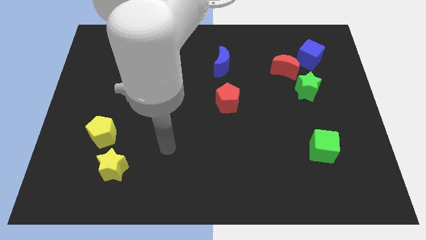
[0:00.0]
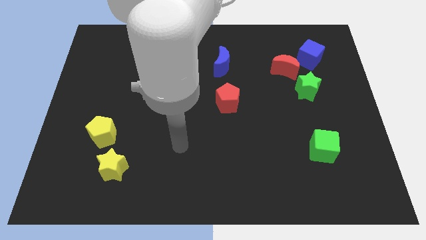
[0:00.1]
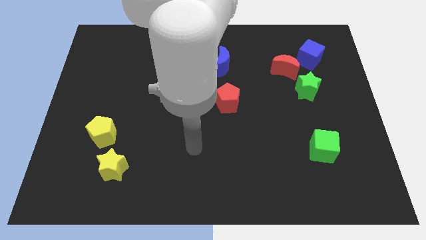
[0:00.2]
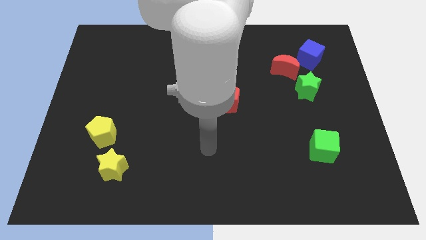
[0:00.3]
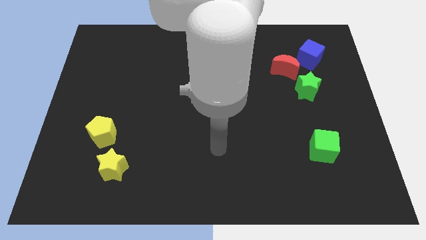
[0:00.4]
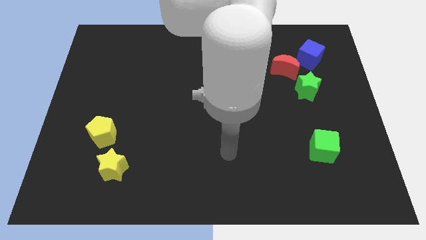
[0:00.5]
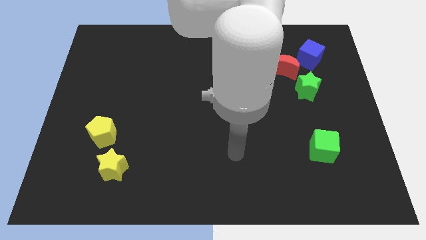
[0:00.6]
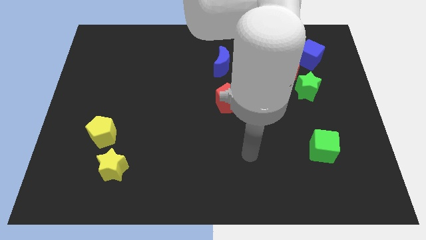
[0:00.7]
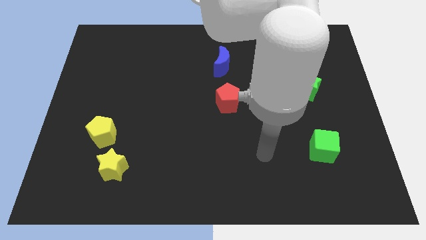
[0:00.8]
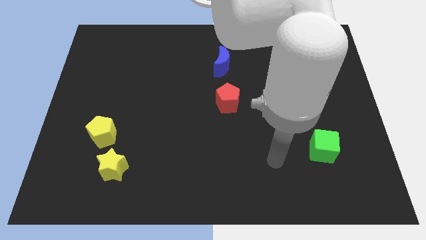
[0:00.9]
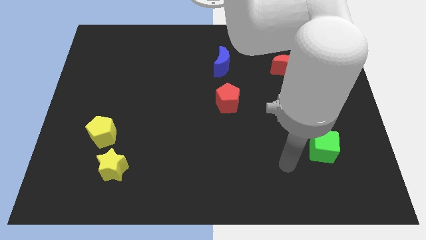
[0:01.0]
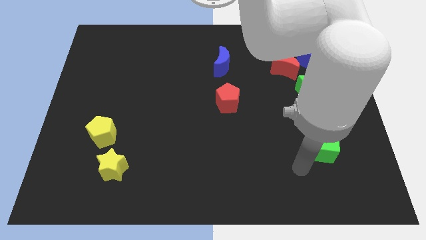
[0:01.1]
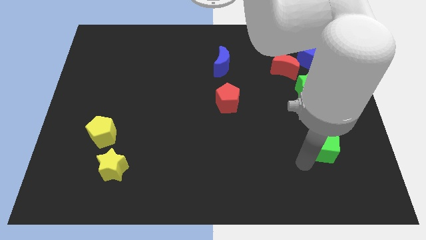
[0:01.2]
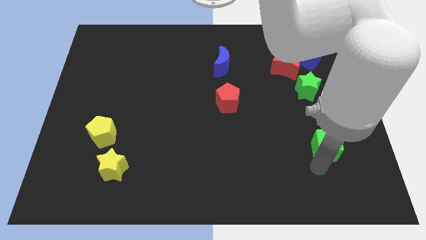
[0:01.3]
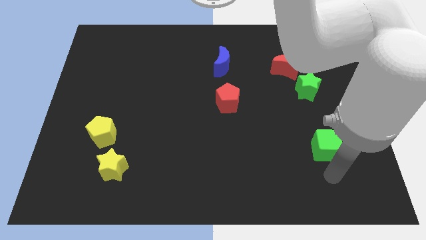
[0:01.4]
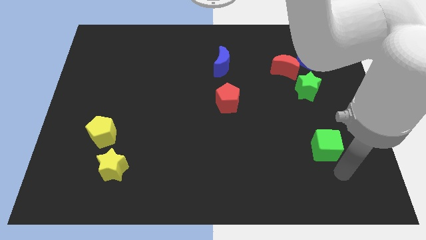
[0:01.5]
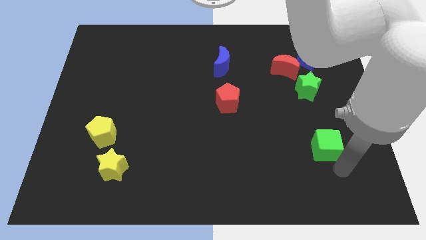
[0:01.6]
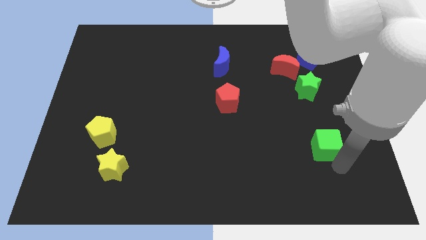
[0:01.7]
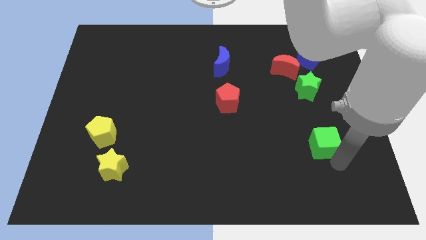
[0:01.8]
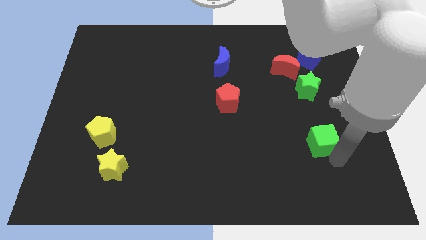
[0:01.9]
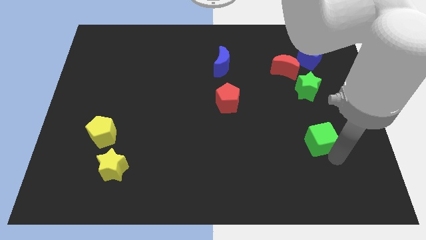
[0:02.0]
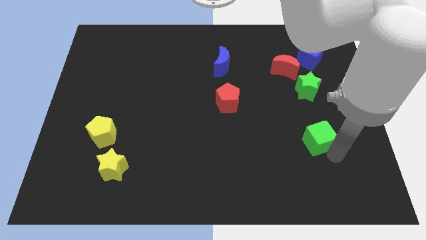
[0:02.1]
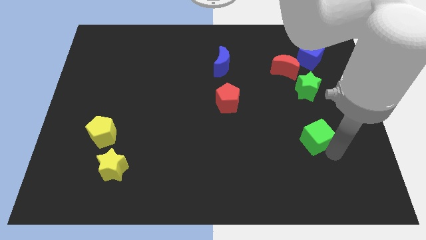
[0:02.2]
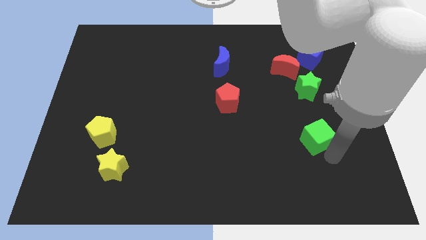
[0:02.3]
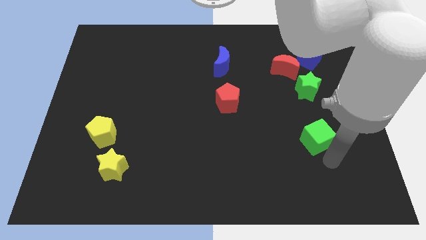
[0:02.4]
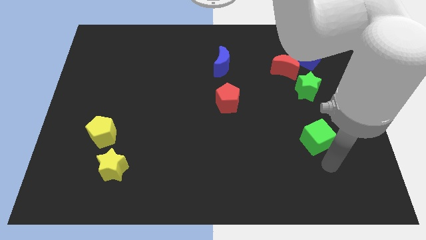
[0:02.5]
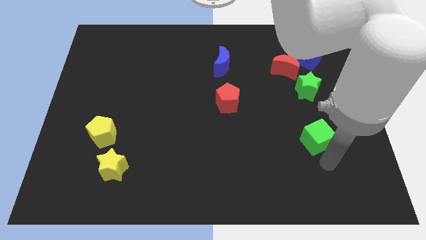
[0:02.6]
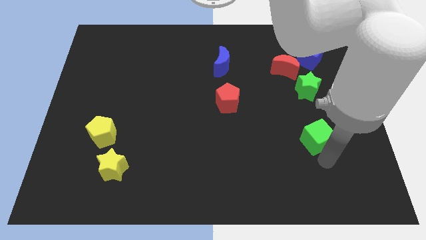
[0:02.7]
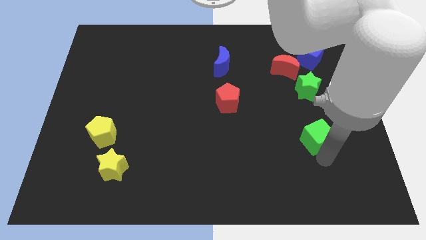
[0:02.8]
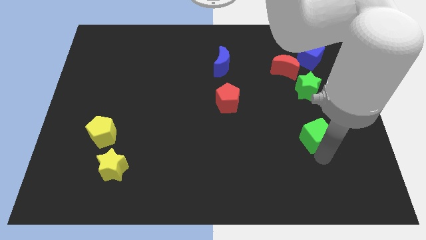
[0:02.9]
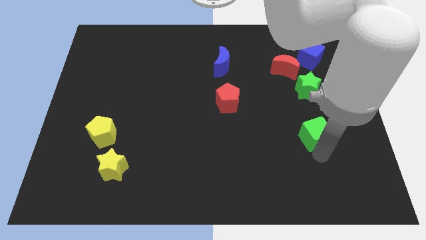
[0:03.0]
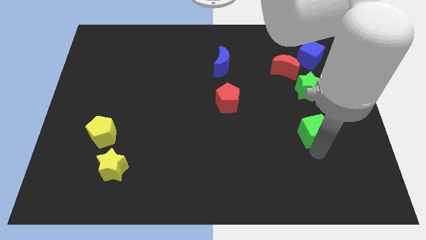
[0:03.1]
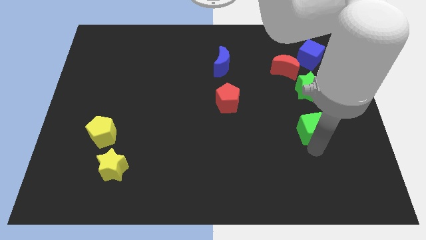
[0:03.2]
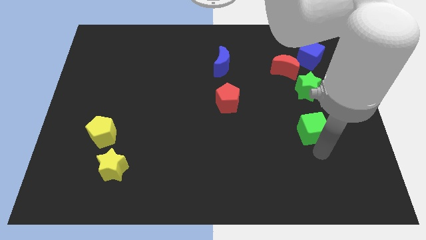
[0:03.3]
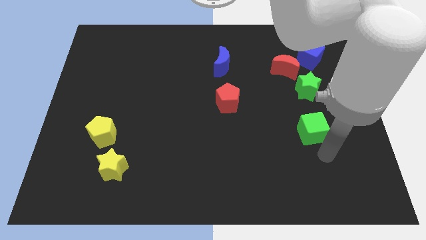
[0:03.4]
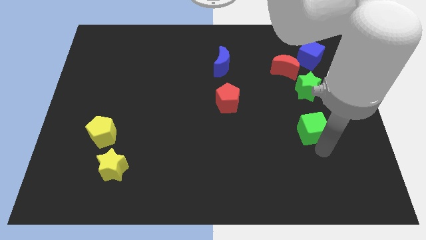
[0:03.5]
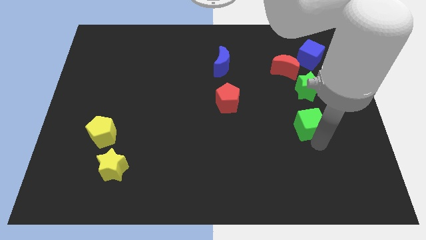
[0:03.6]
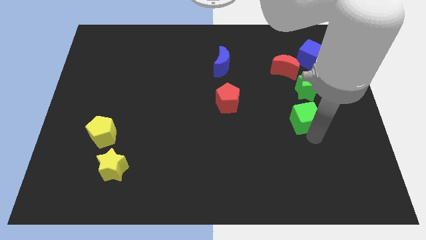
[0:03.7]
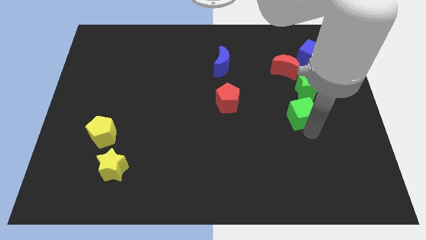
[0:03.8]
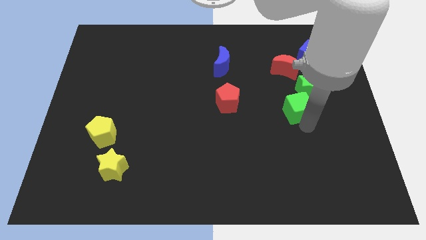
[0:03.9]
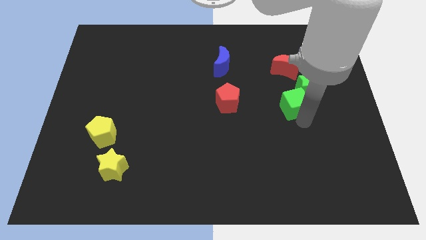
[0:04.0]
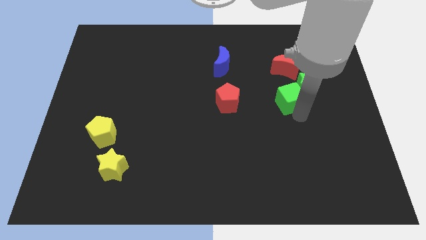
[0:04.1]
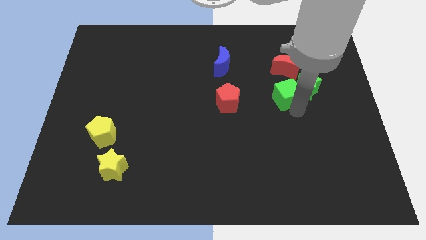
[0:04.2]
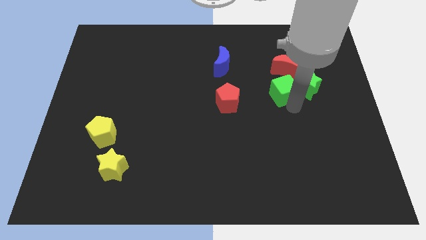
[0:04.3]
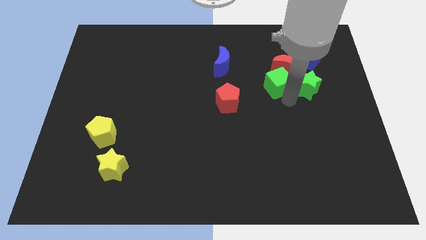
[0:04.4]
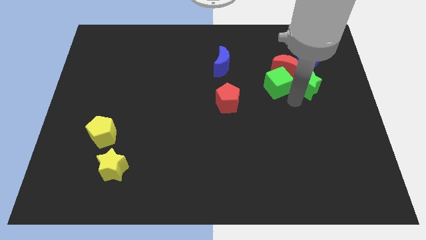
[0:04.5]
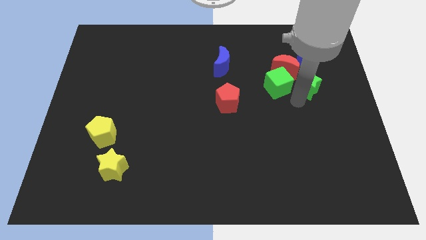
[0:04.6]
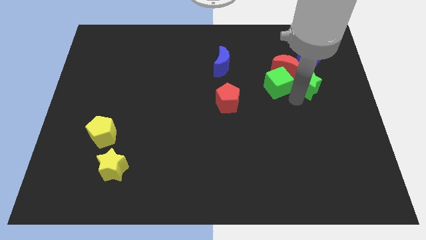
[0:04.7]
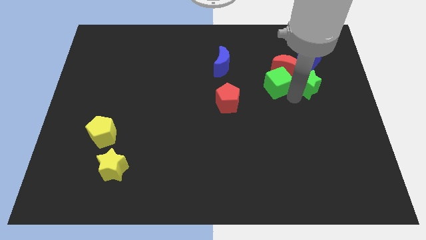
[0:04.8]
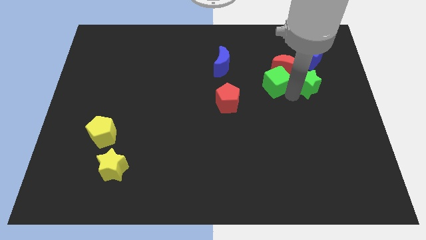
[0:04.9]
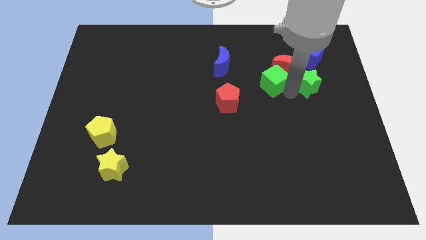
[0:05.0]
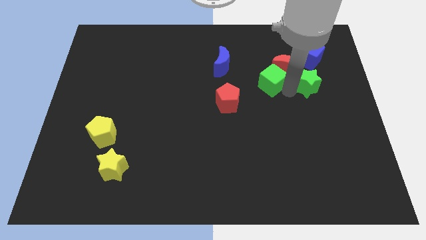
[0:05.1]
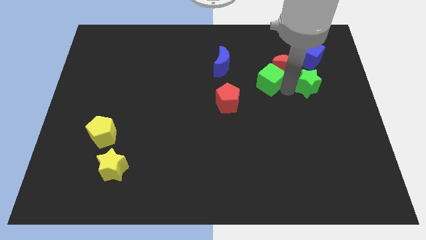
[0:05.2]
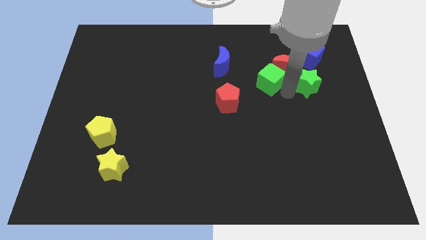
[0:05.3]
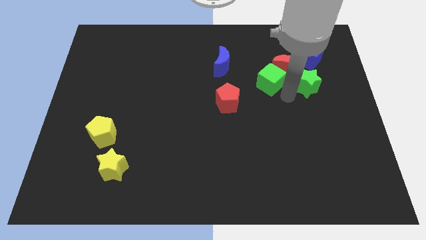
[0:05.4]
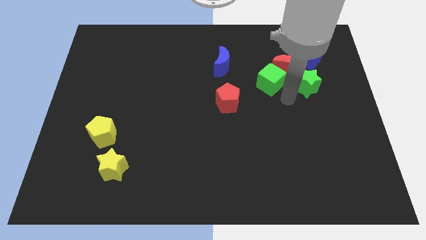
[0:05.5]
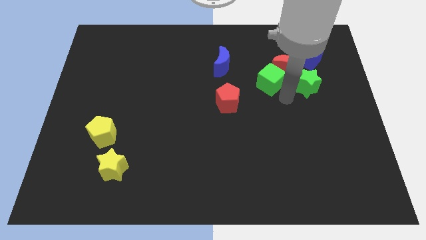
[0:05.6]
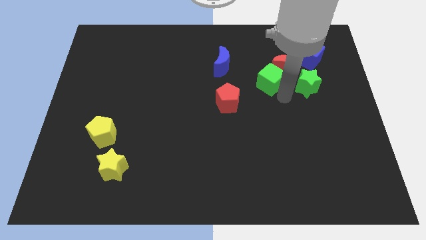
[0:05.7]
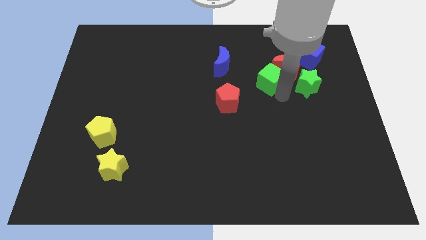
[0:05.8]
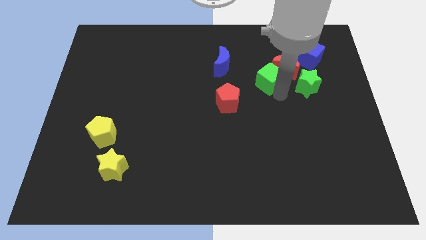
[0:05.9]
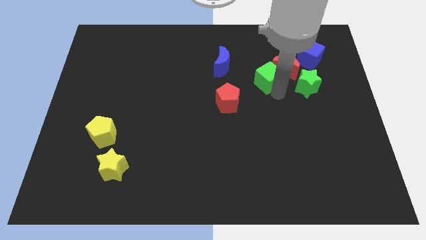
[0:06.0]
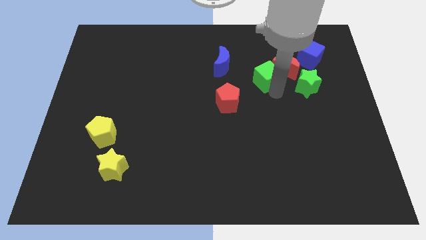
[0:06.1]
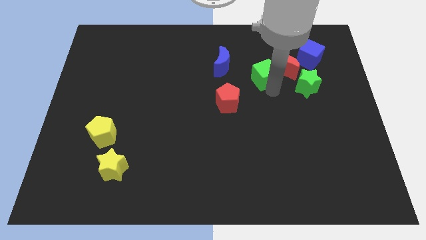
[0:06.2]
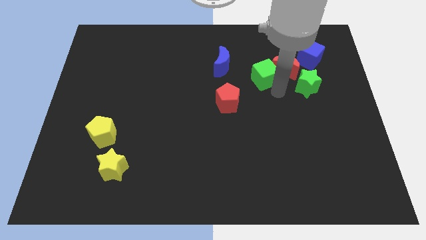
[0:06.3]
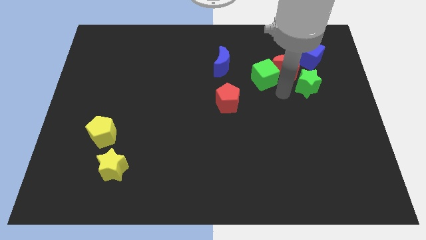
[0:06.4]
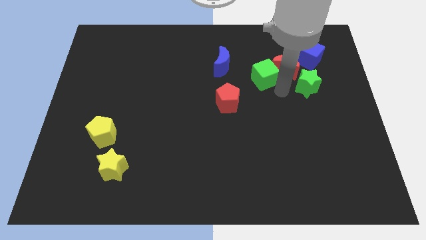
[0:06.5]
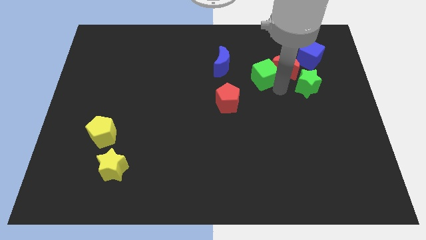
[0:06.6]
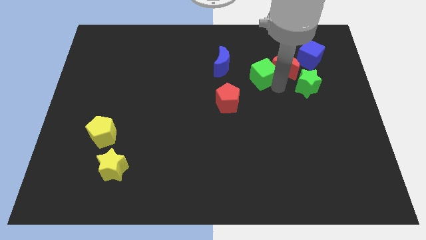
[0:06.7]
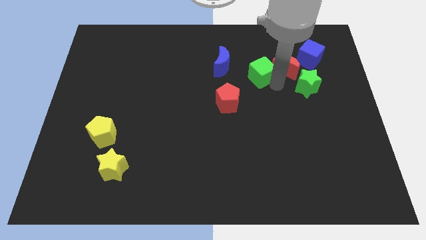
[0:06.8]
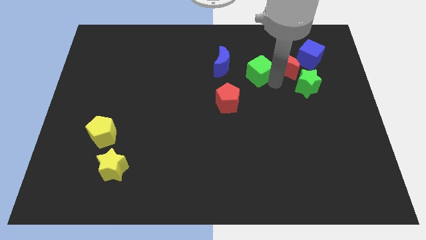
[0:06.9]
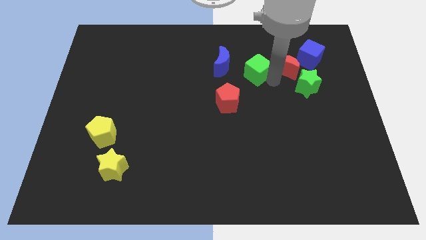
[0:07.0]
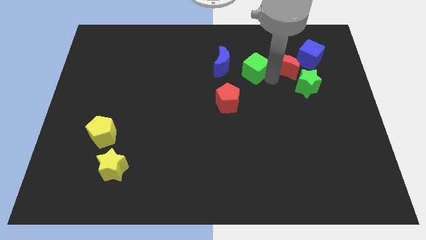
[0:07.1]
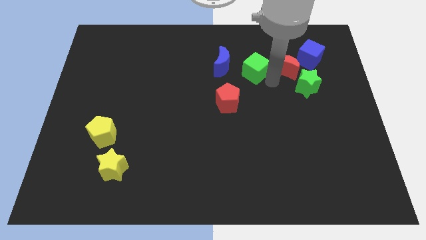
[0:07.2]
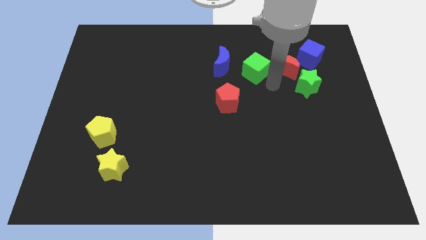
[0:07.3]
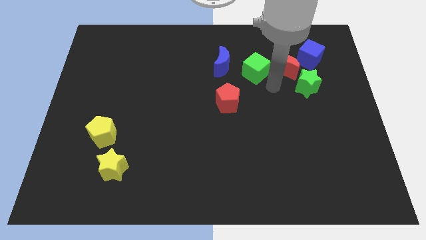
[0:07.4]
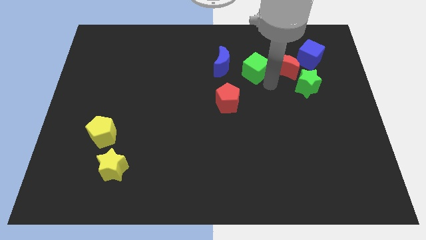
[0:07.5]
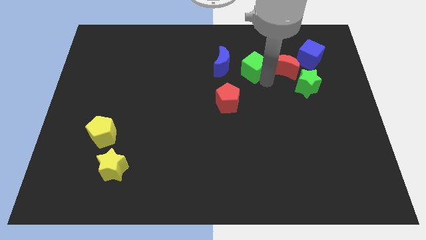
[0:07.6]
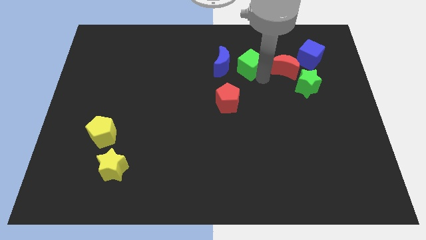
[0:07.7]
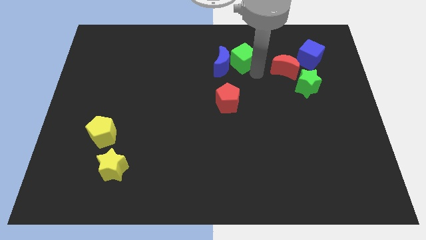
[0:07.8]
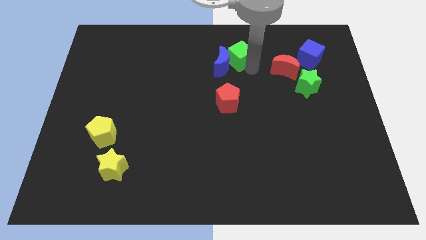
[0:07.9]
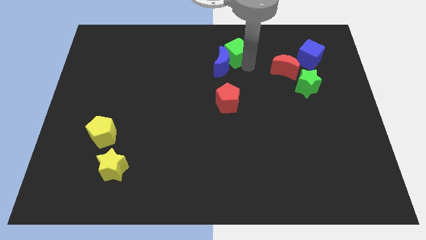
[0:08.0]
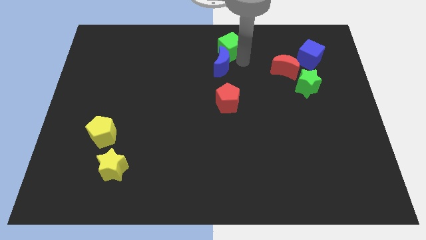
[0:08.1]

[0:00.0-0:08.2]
push the green cube to the top side
